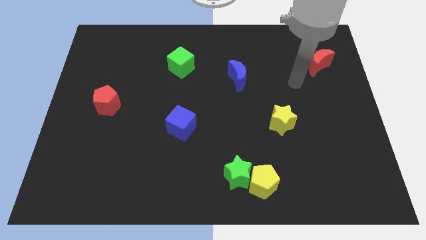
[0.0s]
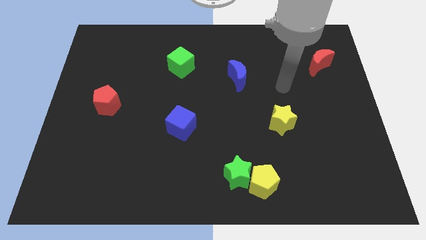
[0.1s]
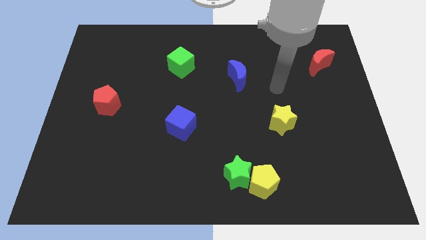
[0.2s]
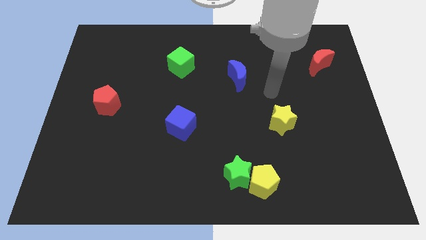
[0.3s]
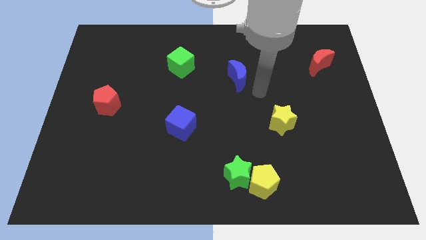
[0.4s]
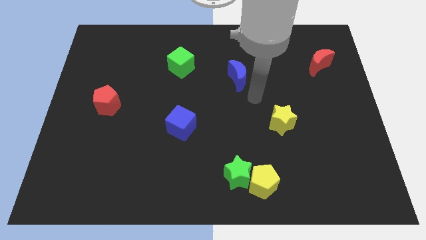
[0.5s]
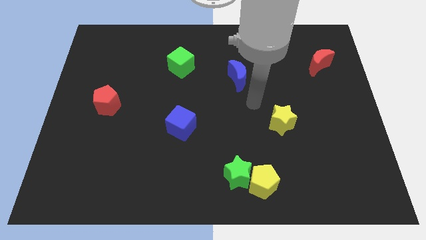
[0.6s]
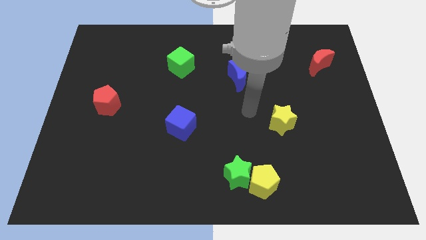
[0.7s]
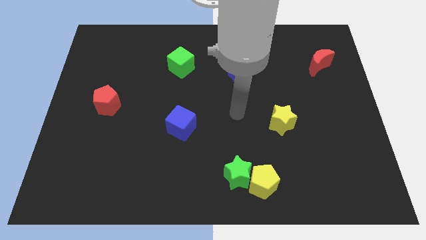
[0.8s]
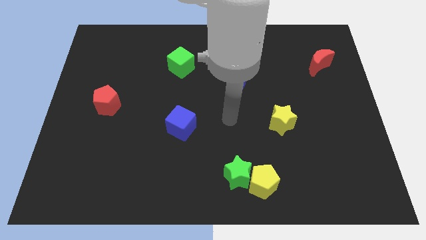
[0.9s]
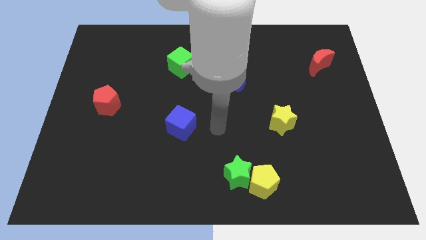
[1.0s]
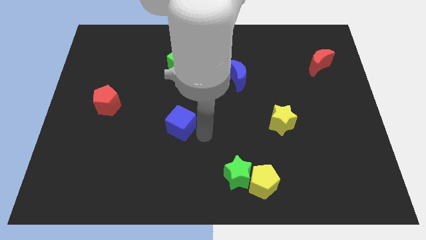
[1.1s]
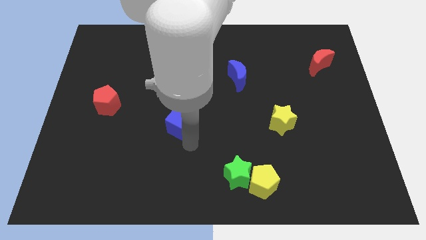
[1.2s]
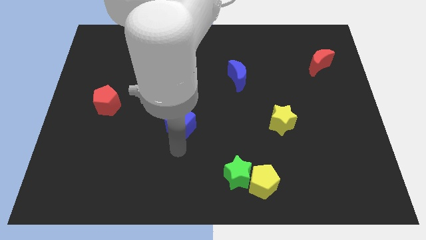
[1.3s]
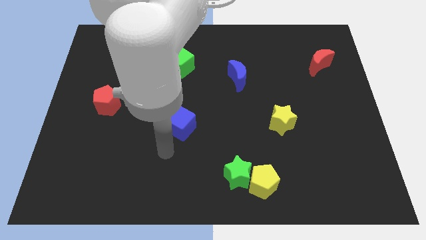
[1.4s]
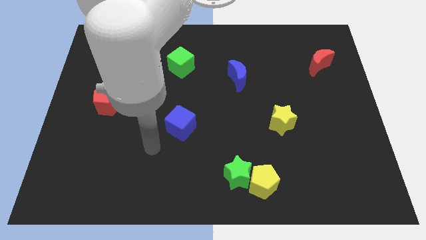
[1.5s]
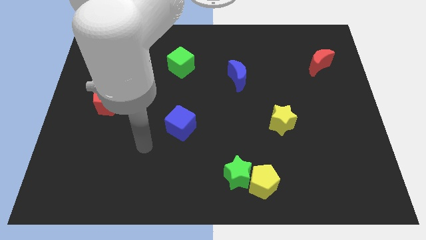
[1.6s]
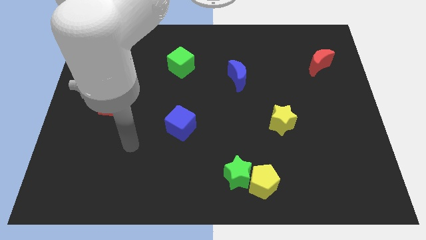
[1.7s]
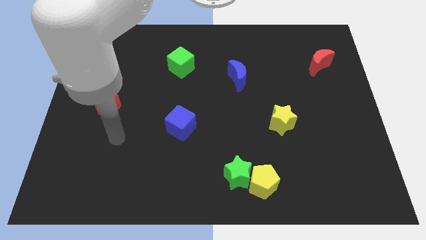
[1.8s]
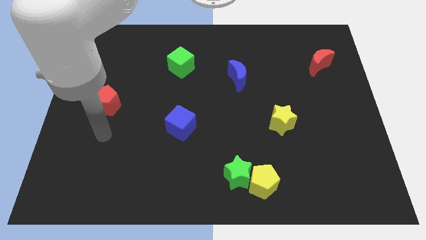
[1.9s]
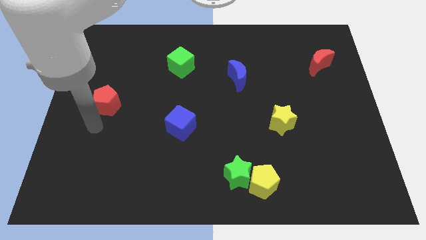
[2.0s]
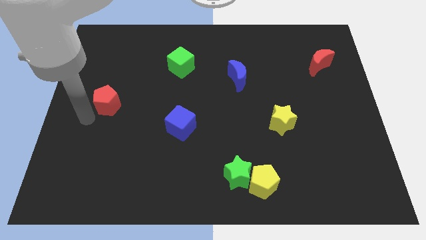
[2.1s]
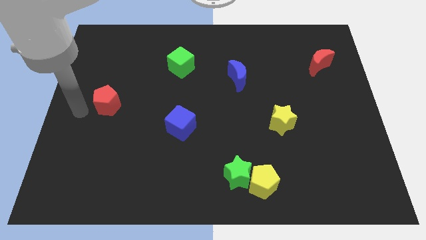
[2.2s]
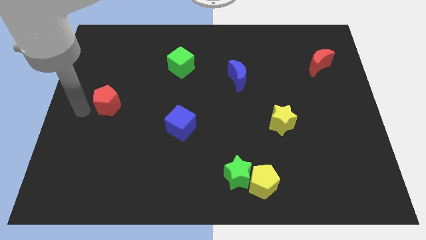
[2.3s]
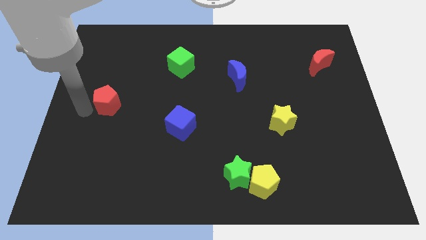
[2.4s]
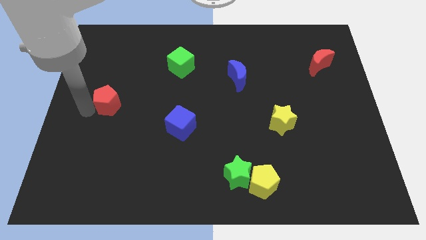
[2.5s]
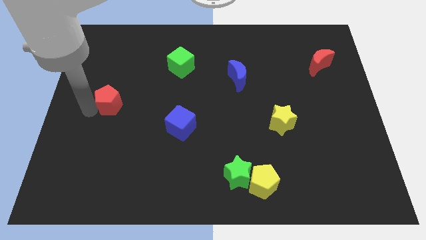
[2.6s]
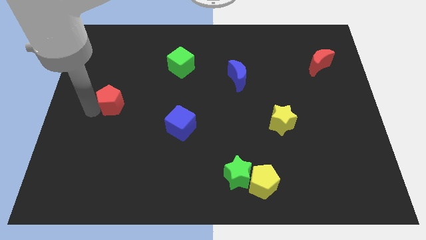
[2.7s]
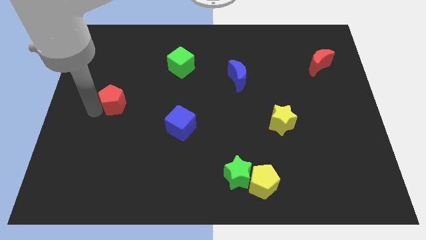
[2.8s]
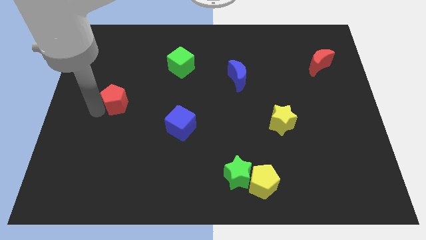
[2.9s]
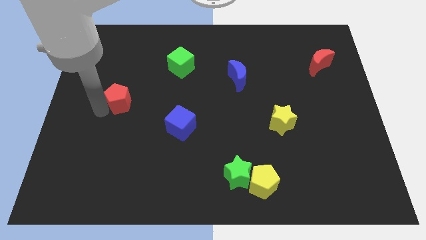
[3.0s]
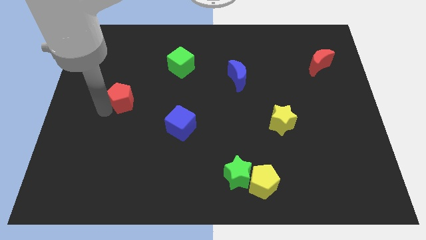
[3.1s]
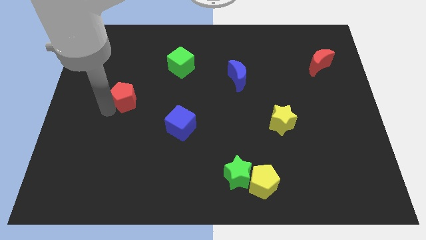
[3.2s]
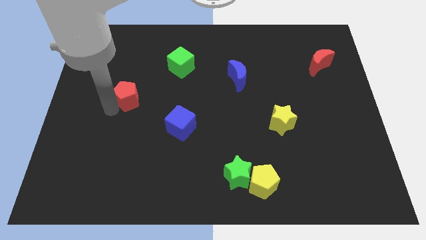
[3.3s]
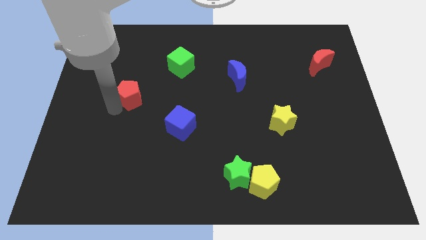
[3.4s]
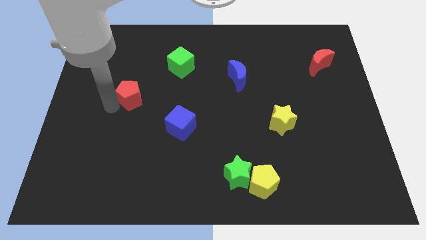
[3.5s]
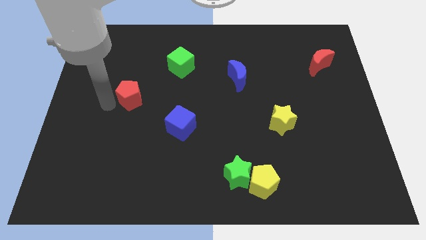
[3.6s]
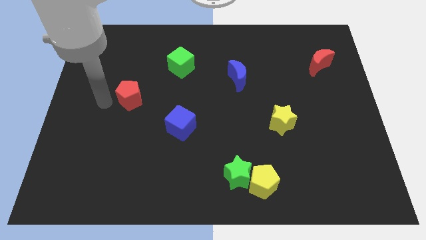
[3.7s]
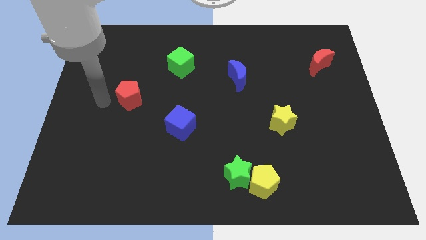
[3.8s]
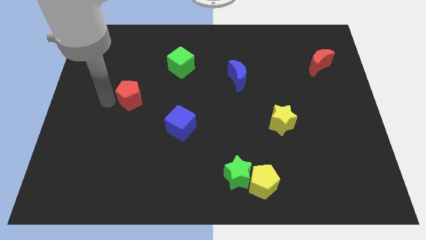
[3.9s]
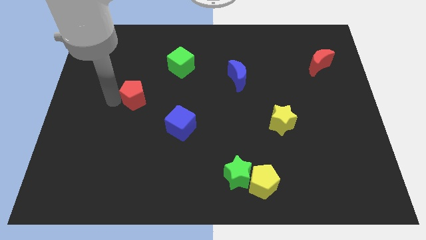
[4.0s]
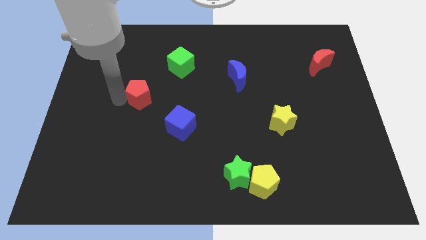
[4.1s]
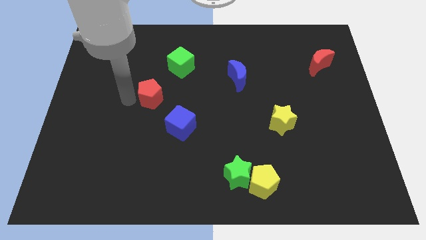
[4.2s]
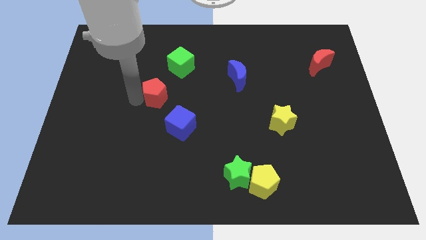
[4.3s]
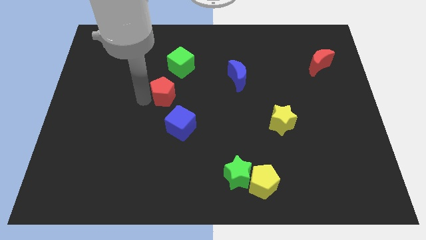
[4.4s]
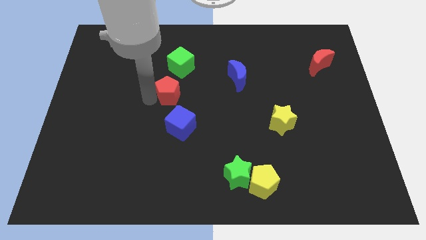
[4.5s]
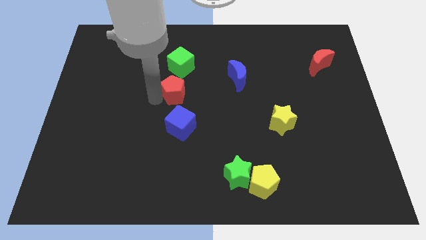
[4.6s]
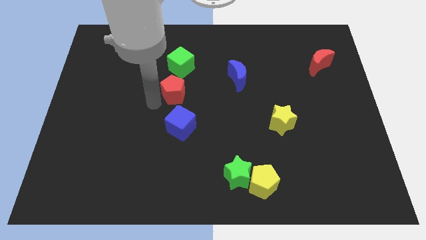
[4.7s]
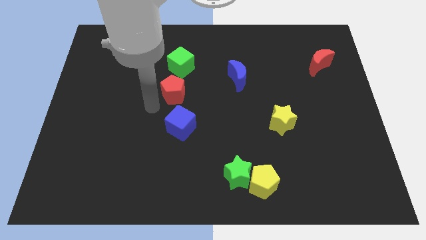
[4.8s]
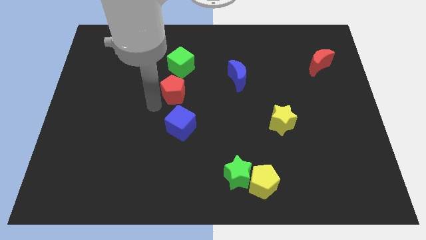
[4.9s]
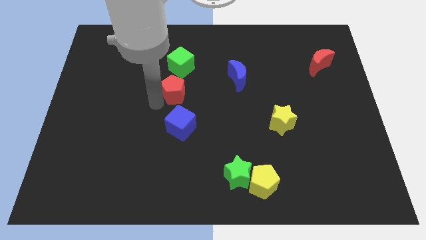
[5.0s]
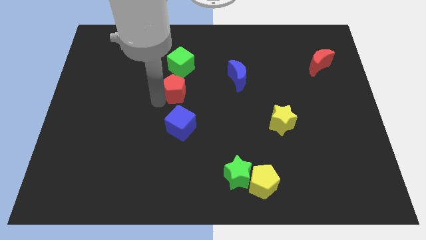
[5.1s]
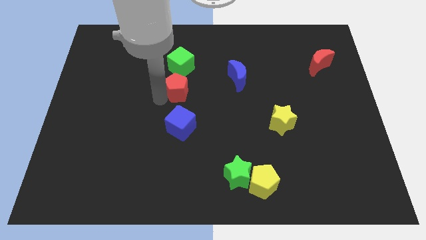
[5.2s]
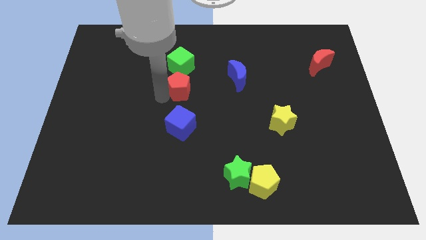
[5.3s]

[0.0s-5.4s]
put the red pentagon to the left side of the blue moon

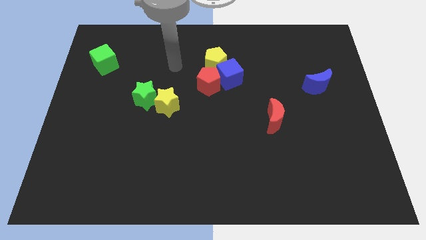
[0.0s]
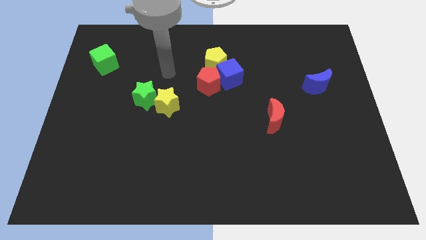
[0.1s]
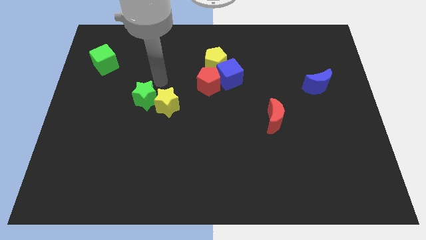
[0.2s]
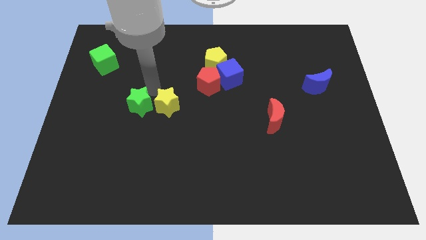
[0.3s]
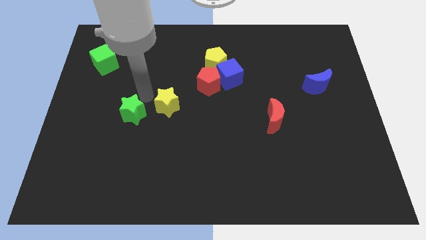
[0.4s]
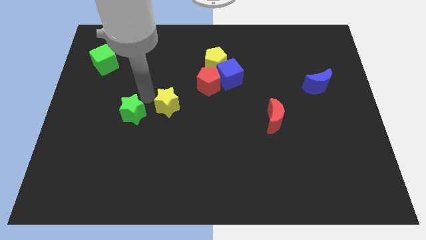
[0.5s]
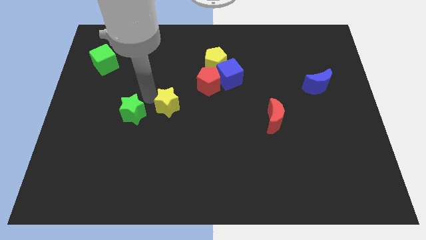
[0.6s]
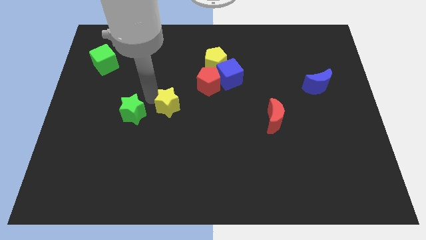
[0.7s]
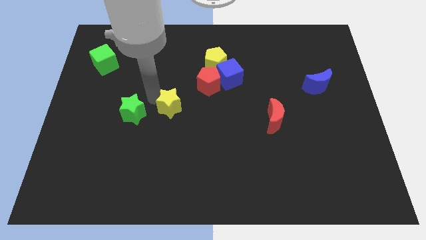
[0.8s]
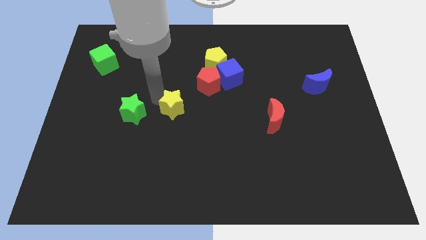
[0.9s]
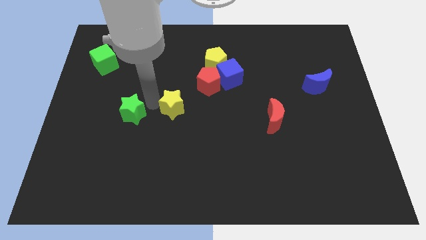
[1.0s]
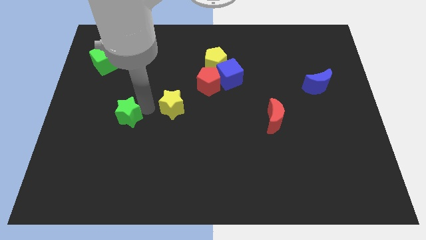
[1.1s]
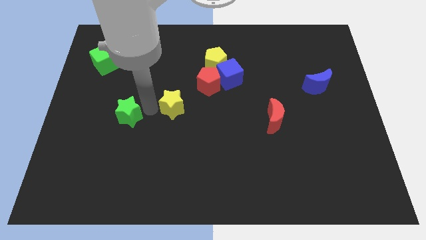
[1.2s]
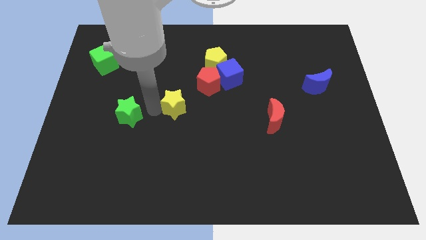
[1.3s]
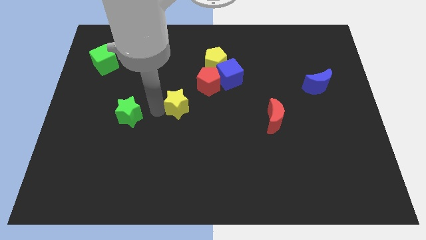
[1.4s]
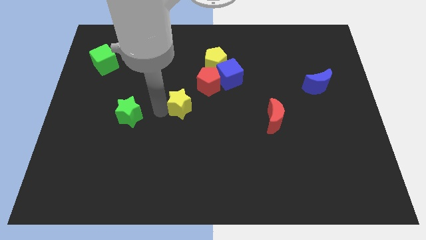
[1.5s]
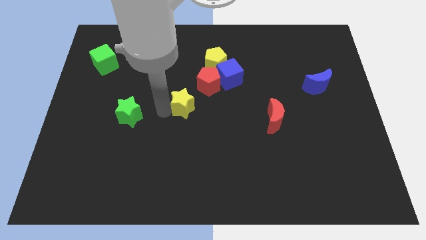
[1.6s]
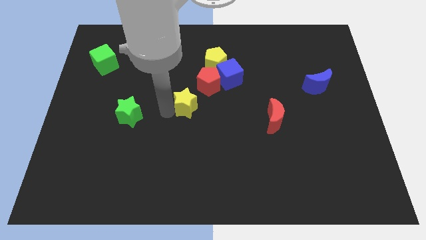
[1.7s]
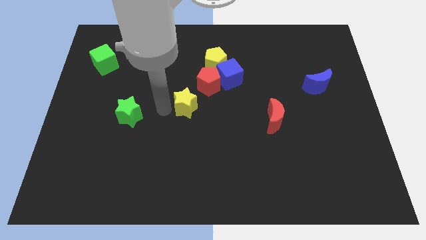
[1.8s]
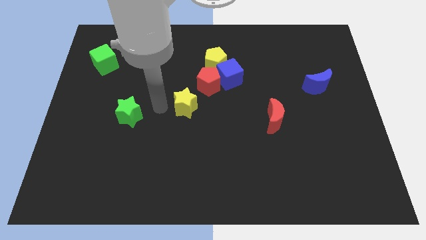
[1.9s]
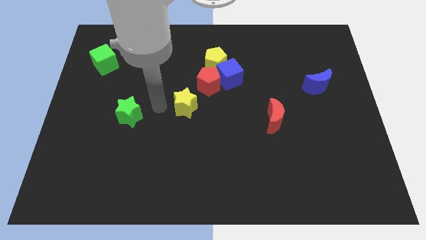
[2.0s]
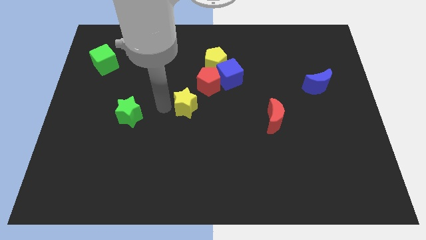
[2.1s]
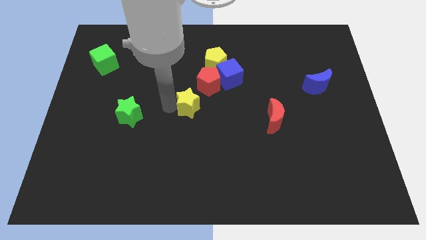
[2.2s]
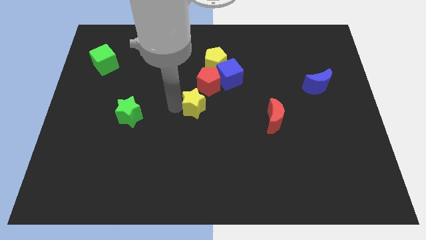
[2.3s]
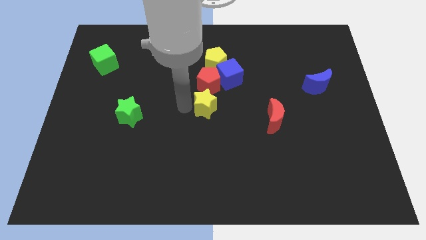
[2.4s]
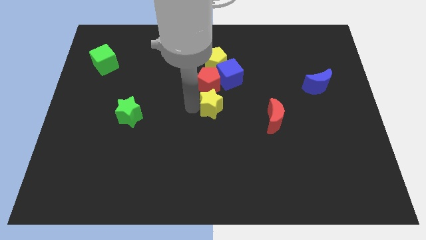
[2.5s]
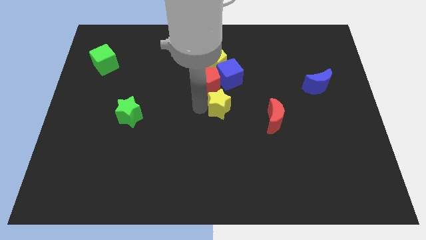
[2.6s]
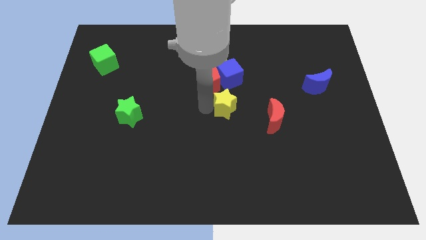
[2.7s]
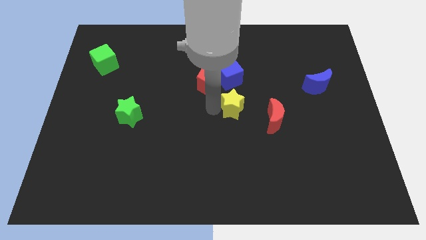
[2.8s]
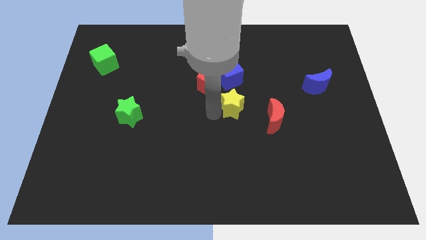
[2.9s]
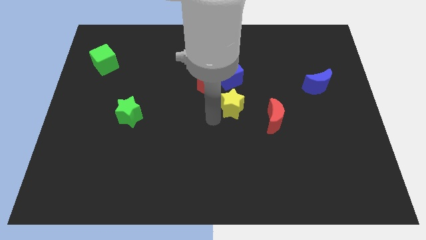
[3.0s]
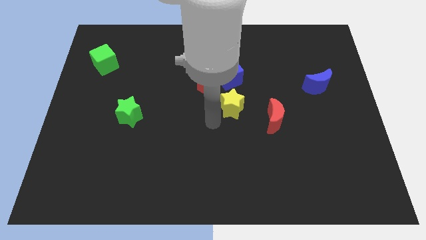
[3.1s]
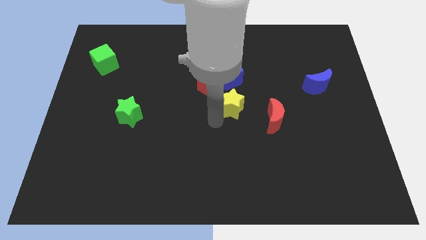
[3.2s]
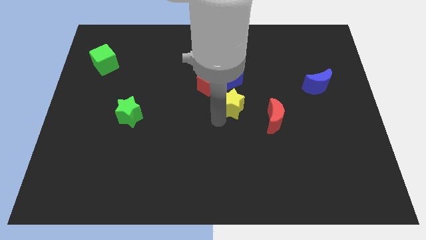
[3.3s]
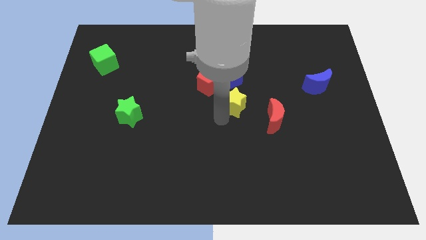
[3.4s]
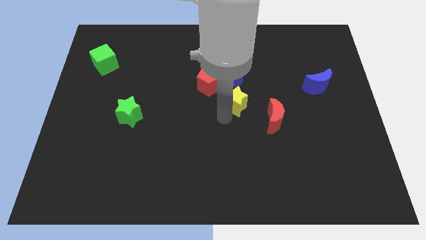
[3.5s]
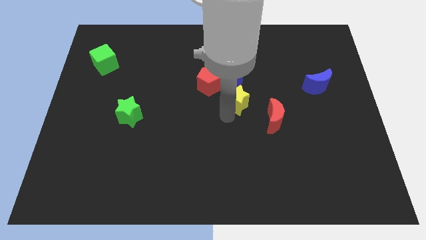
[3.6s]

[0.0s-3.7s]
put the yellow star to the bottom right side of the blue cube
